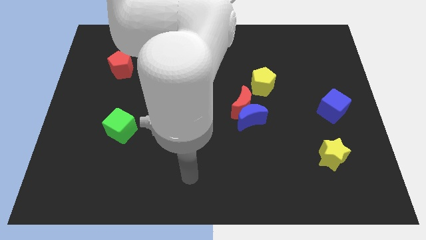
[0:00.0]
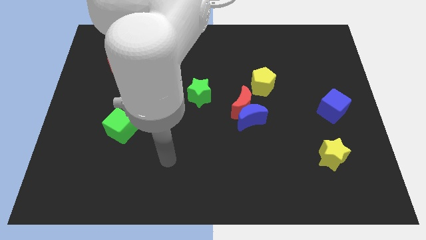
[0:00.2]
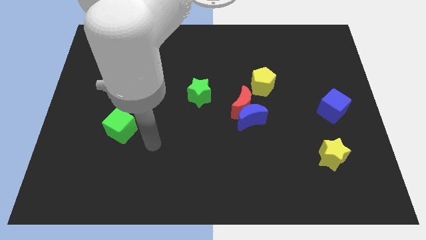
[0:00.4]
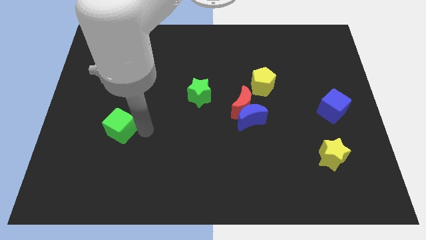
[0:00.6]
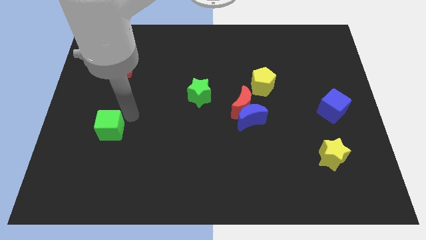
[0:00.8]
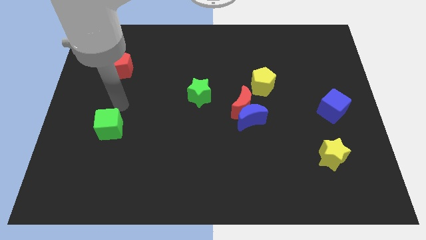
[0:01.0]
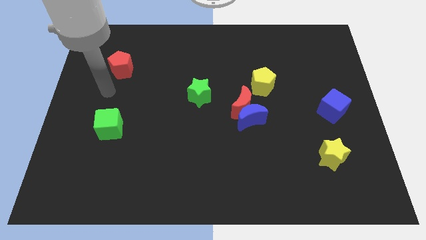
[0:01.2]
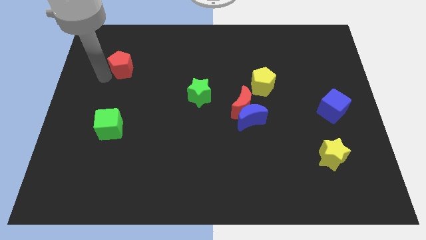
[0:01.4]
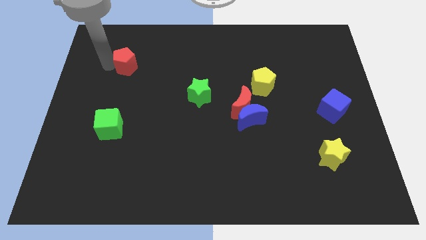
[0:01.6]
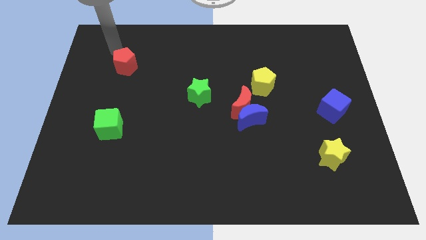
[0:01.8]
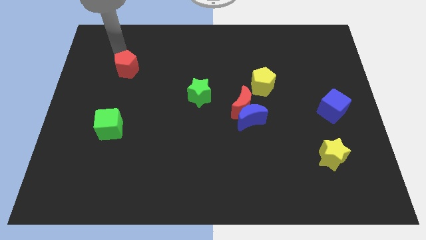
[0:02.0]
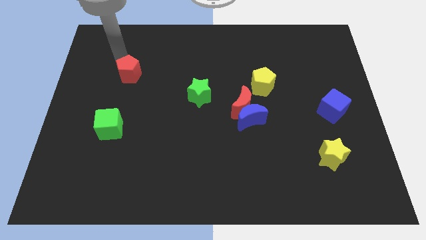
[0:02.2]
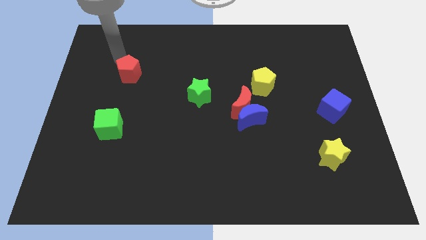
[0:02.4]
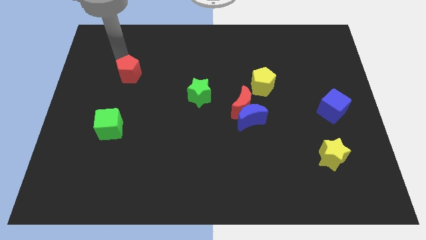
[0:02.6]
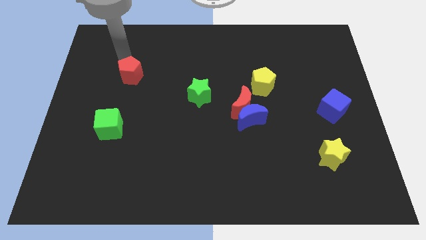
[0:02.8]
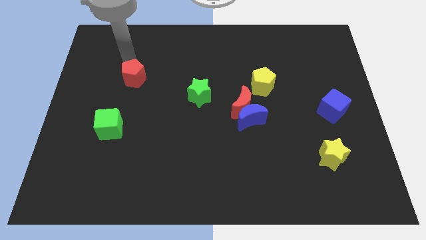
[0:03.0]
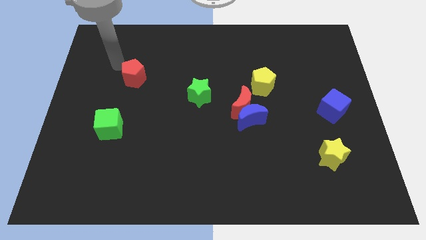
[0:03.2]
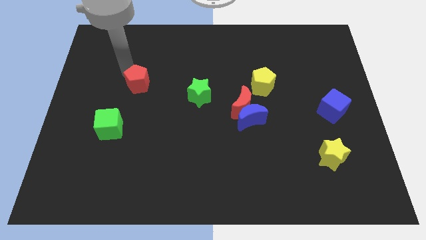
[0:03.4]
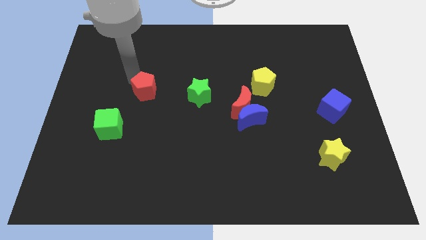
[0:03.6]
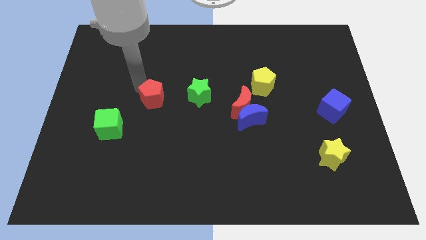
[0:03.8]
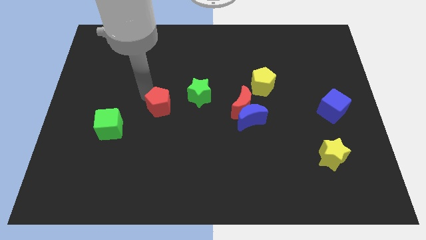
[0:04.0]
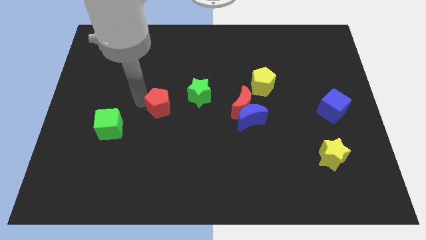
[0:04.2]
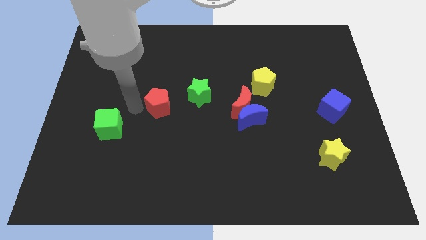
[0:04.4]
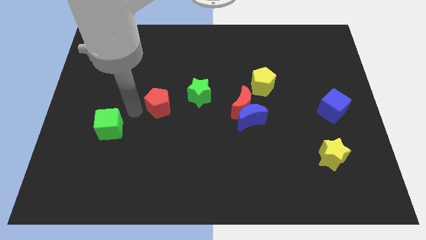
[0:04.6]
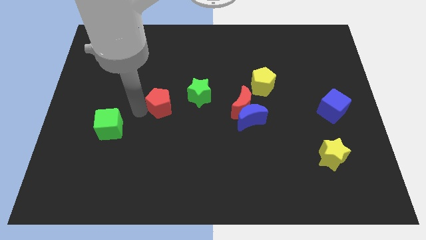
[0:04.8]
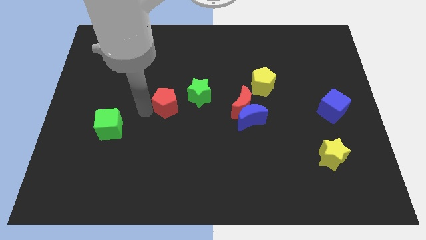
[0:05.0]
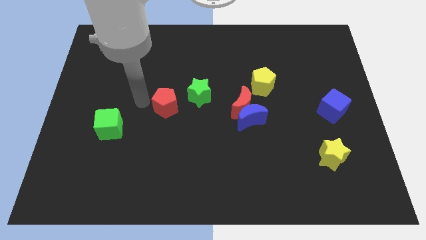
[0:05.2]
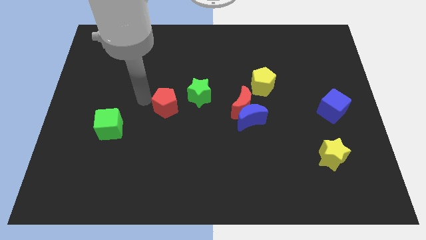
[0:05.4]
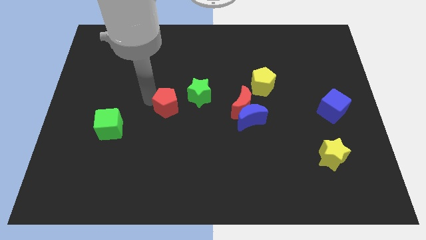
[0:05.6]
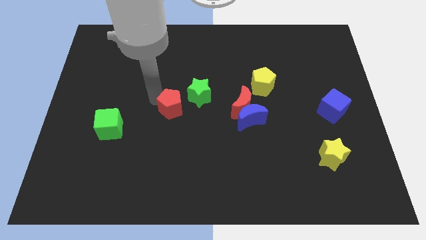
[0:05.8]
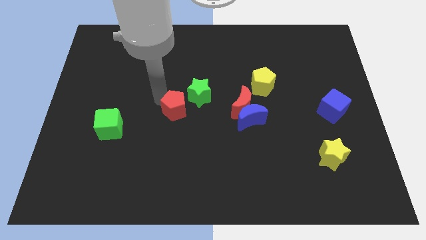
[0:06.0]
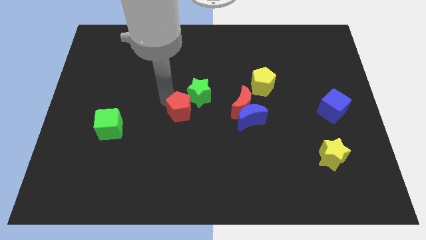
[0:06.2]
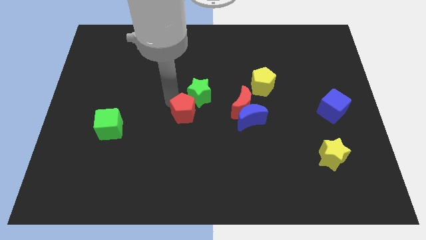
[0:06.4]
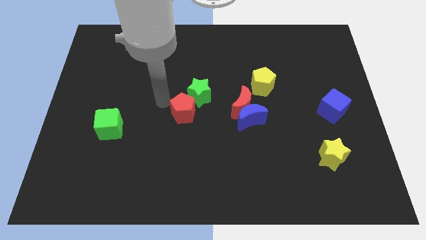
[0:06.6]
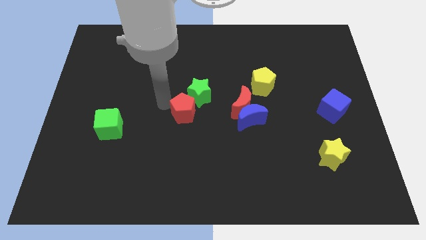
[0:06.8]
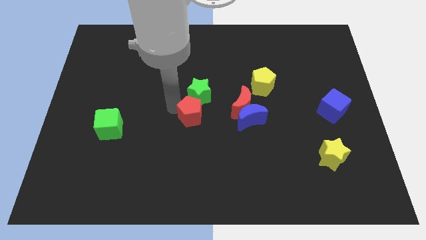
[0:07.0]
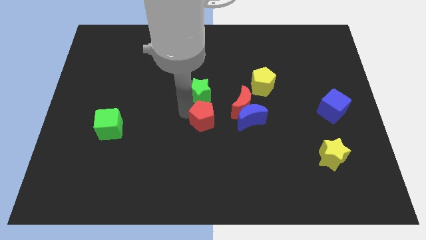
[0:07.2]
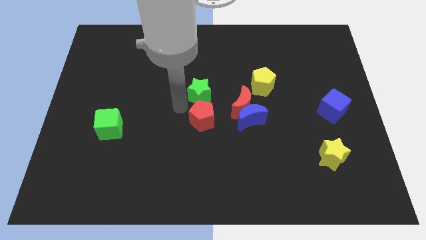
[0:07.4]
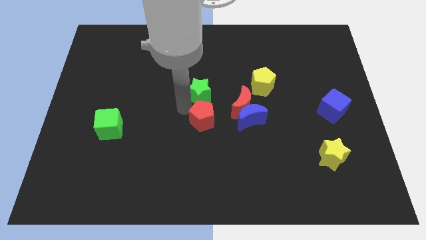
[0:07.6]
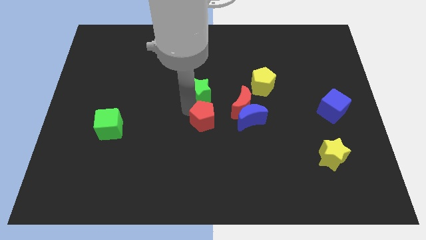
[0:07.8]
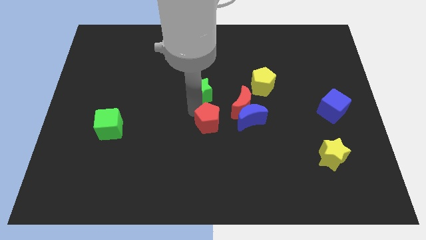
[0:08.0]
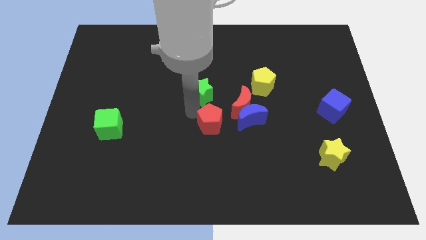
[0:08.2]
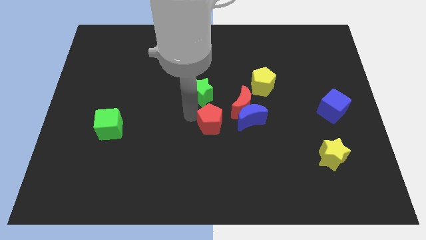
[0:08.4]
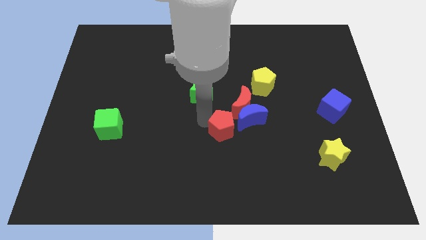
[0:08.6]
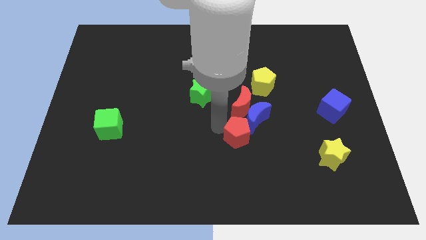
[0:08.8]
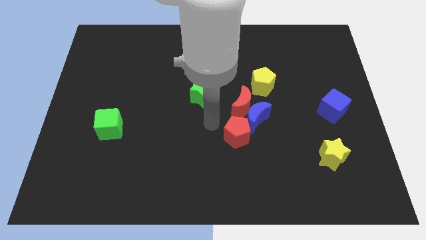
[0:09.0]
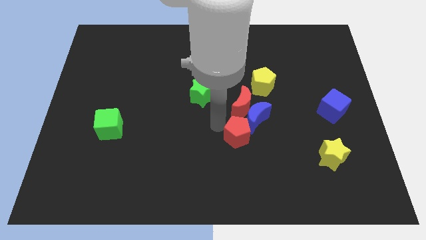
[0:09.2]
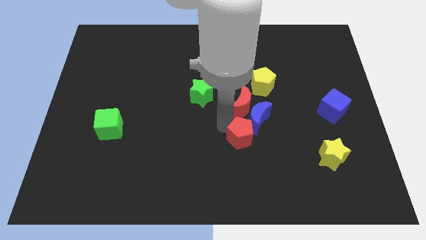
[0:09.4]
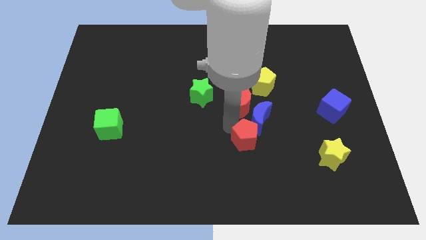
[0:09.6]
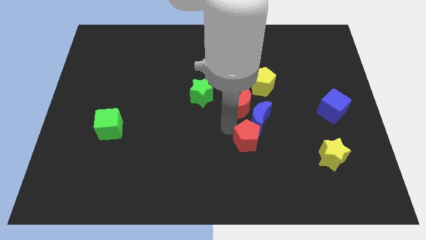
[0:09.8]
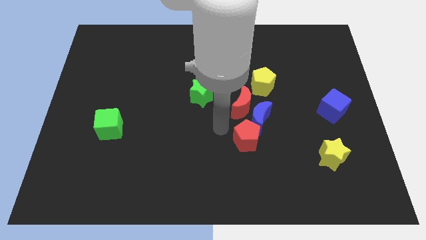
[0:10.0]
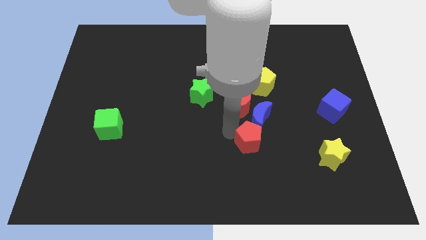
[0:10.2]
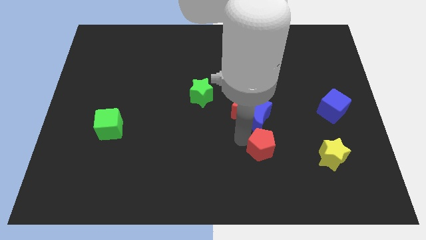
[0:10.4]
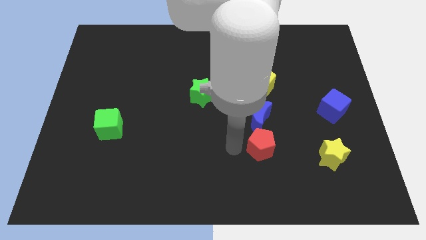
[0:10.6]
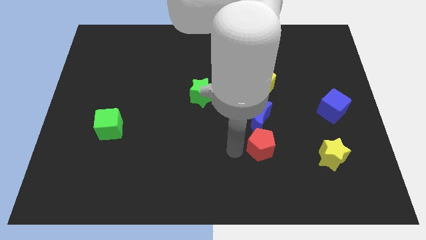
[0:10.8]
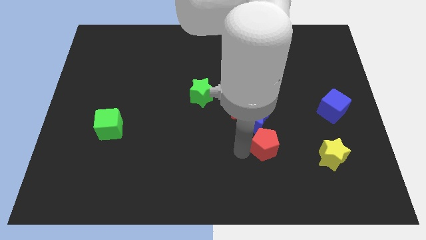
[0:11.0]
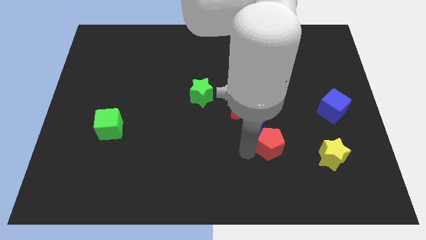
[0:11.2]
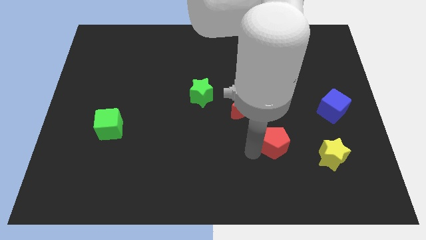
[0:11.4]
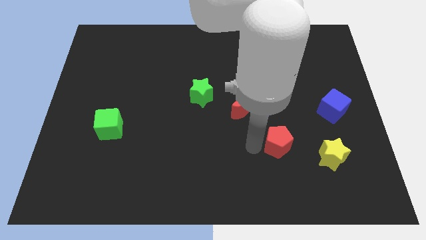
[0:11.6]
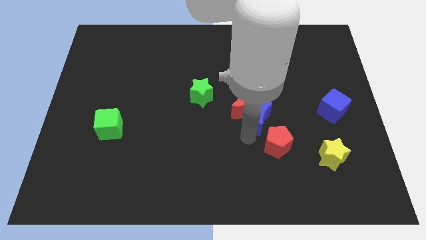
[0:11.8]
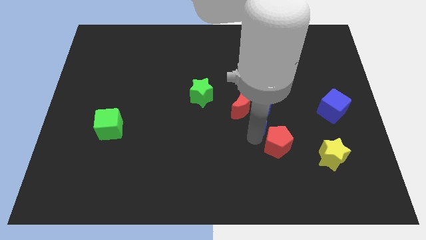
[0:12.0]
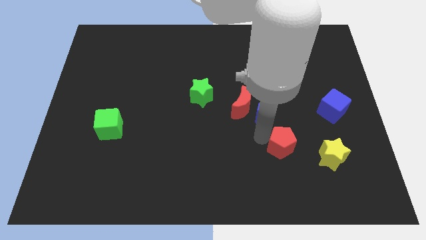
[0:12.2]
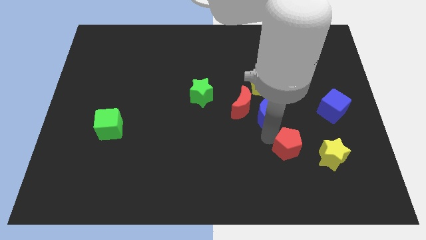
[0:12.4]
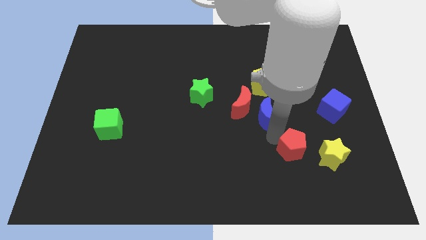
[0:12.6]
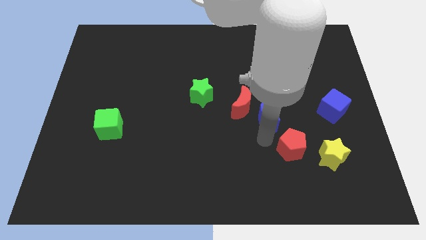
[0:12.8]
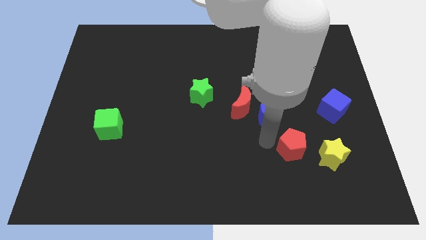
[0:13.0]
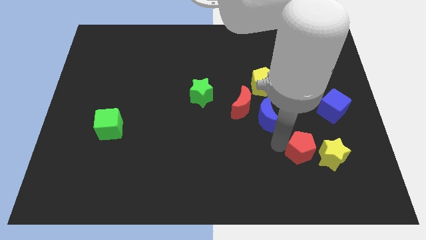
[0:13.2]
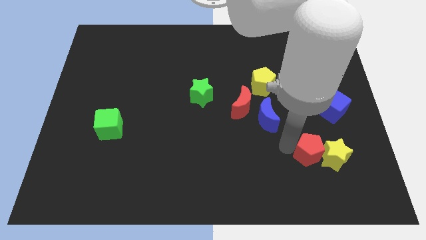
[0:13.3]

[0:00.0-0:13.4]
put the red pentagon to the yellow star

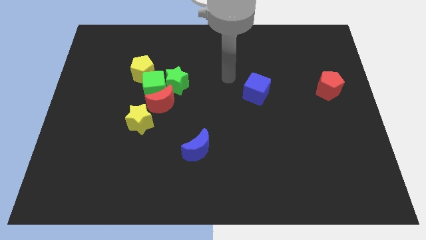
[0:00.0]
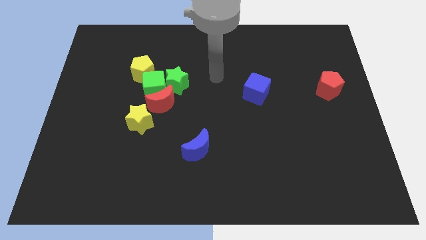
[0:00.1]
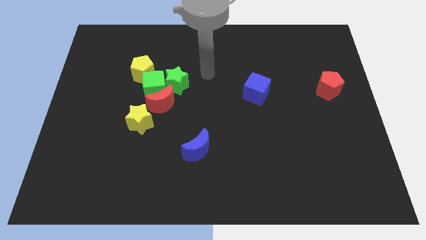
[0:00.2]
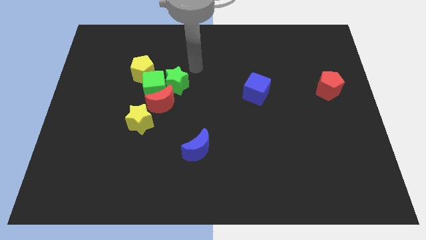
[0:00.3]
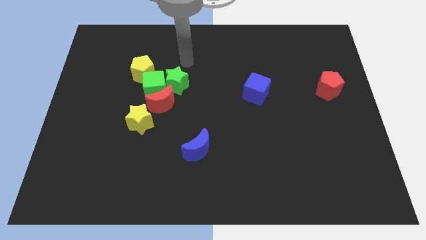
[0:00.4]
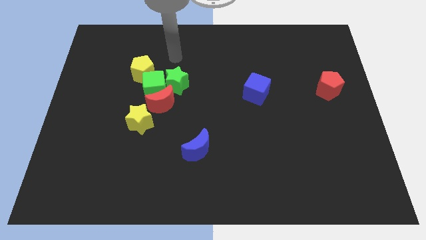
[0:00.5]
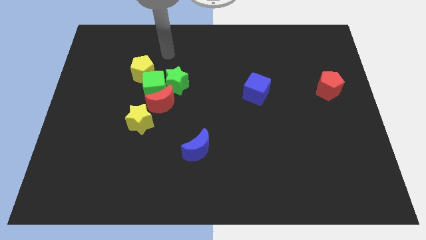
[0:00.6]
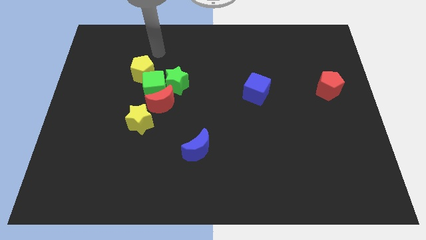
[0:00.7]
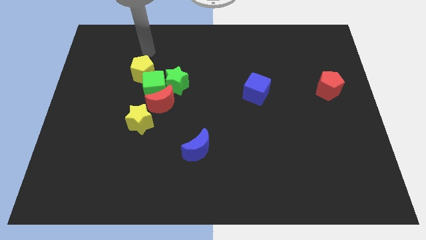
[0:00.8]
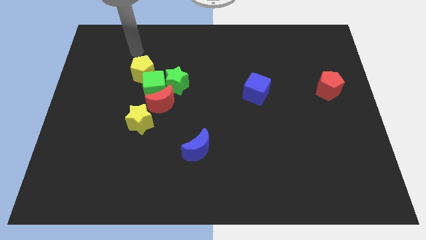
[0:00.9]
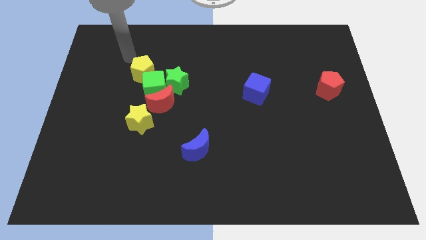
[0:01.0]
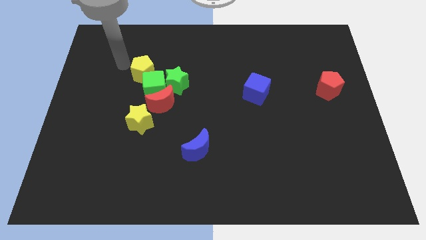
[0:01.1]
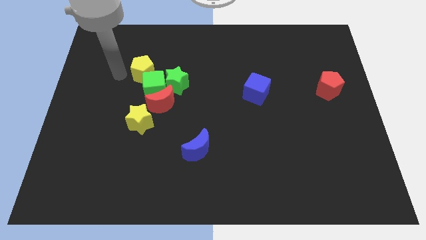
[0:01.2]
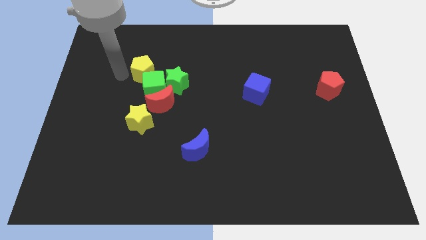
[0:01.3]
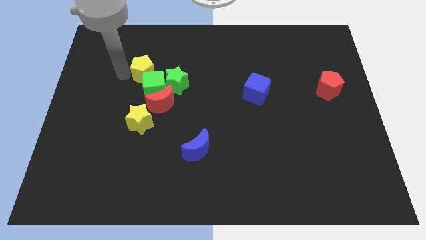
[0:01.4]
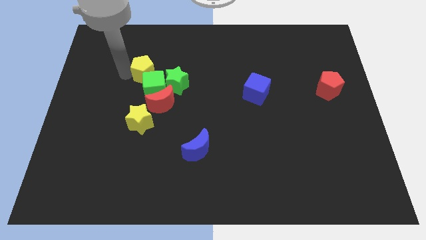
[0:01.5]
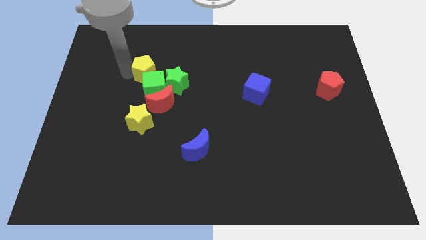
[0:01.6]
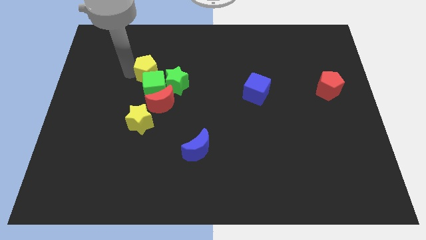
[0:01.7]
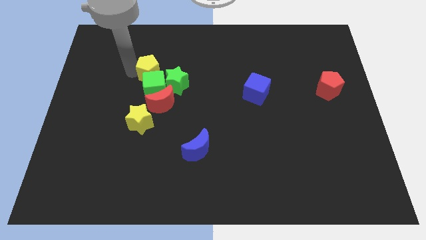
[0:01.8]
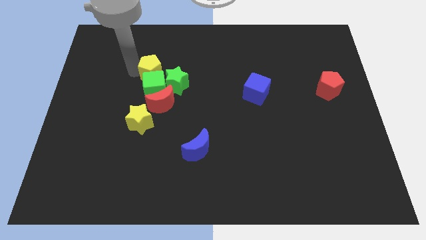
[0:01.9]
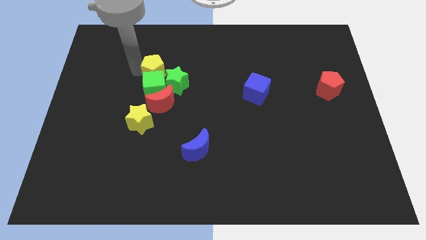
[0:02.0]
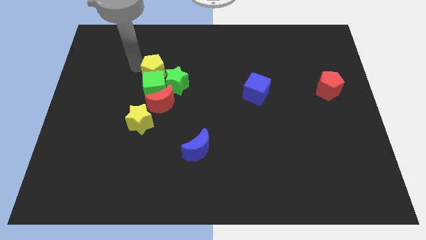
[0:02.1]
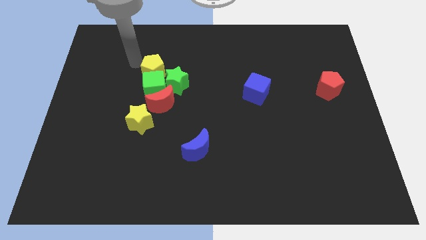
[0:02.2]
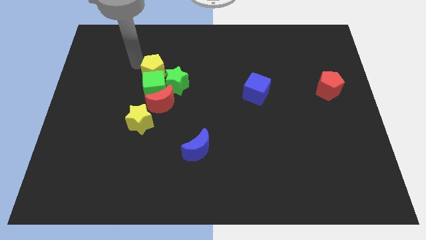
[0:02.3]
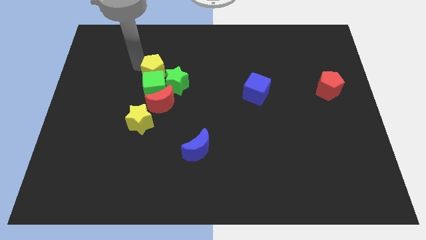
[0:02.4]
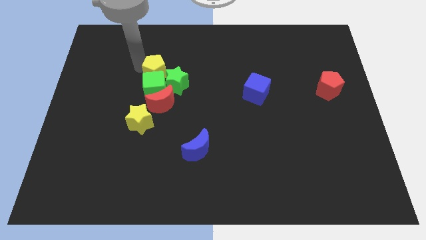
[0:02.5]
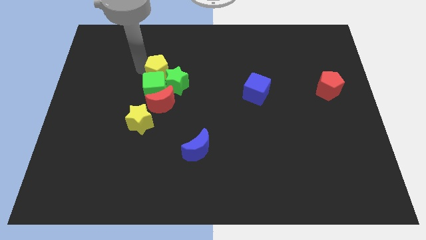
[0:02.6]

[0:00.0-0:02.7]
slide the yellow pentagon towards the green star
